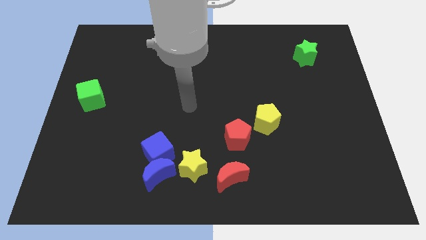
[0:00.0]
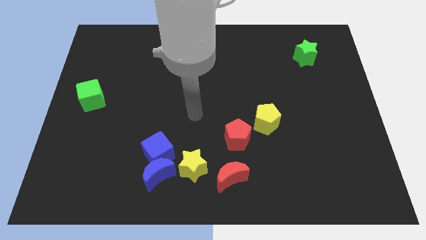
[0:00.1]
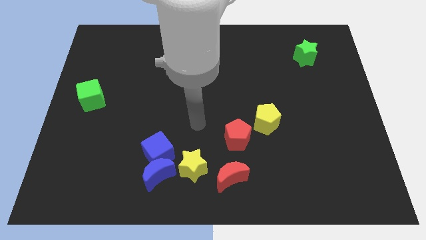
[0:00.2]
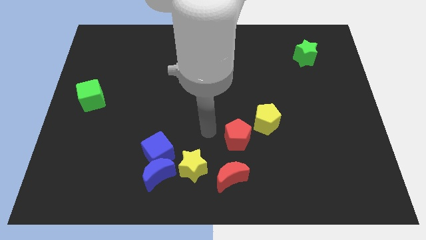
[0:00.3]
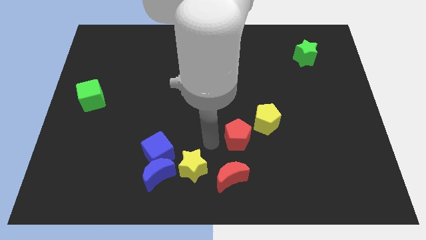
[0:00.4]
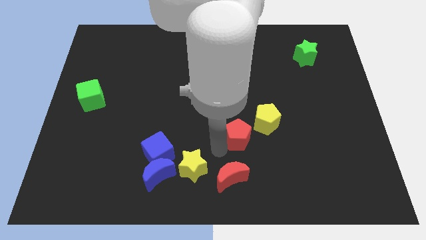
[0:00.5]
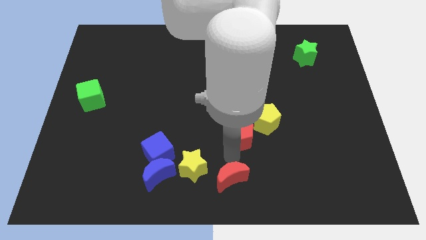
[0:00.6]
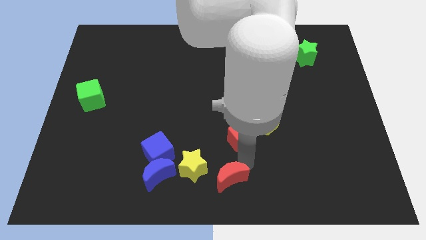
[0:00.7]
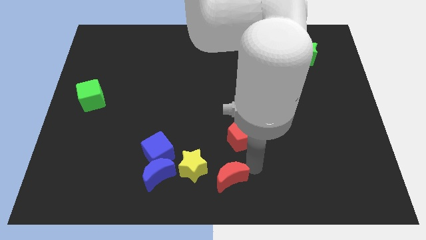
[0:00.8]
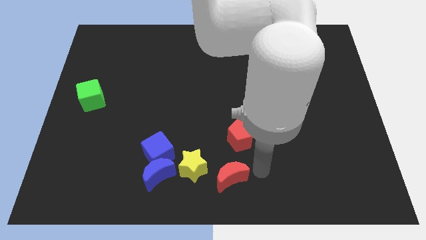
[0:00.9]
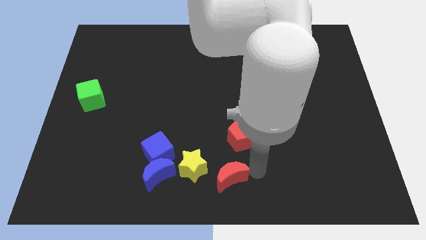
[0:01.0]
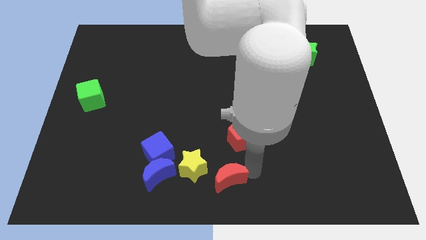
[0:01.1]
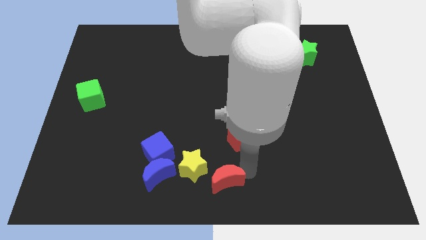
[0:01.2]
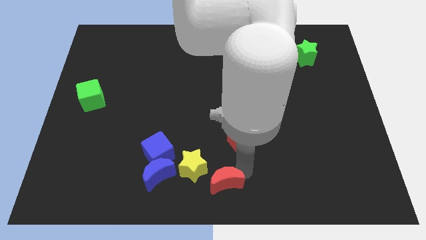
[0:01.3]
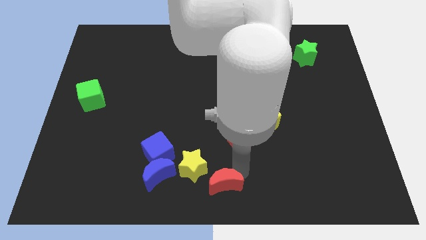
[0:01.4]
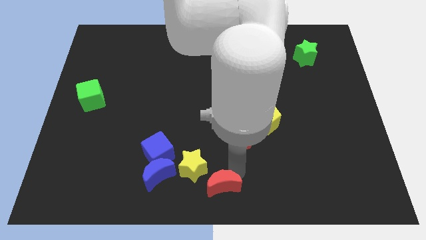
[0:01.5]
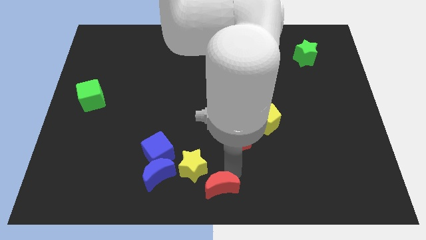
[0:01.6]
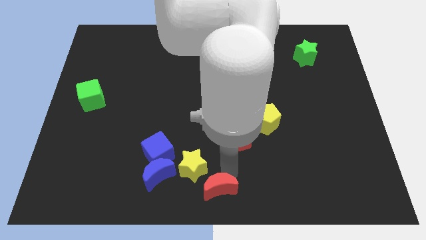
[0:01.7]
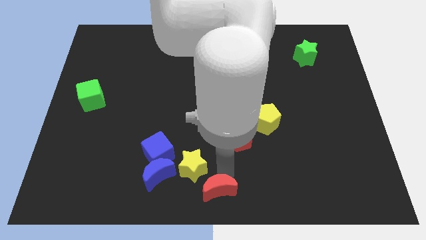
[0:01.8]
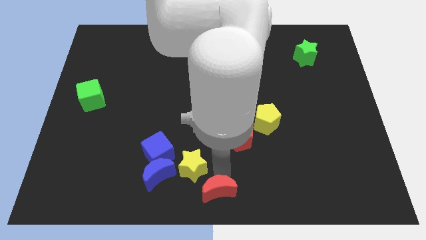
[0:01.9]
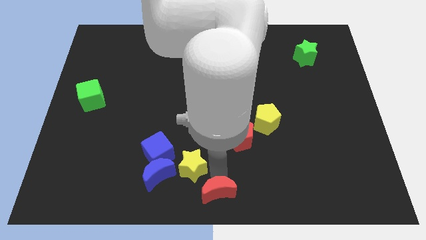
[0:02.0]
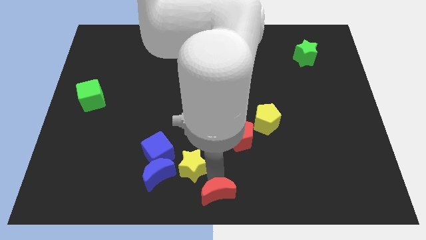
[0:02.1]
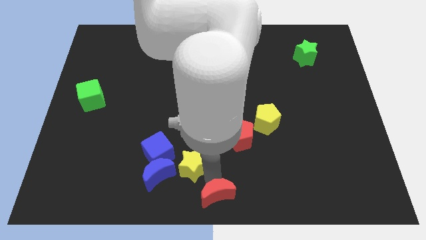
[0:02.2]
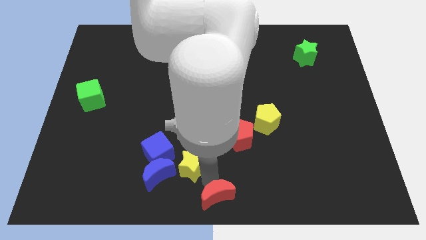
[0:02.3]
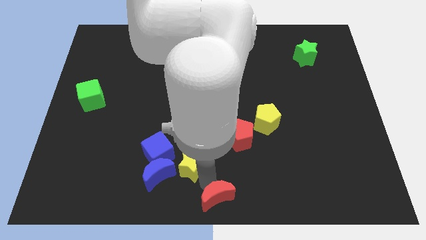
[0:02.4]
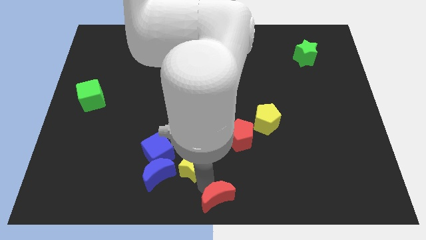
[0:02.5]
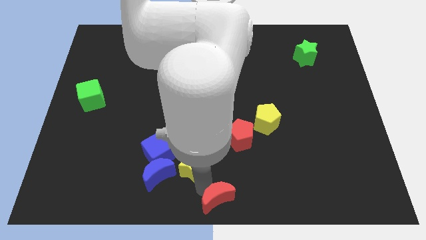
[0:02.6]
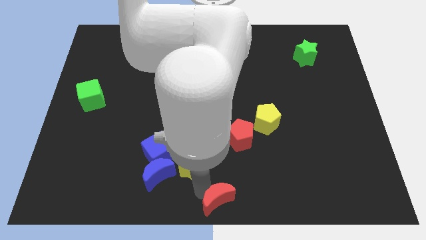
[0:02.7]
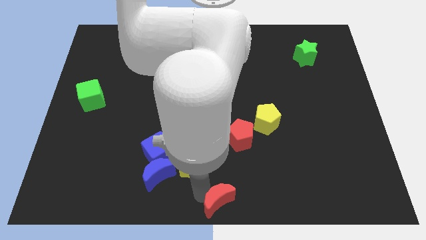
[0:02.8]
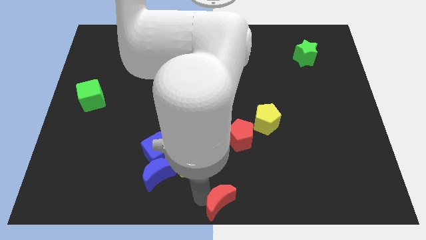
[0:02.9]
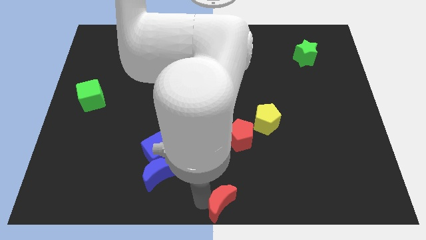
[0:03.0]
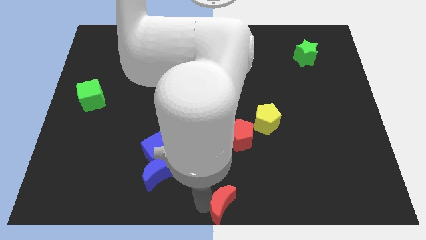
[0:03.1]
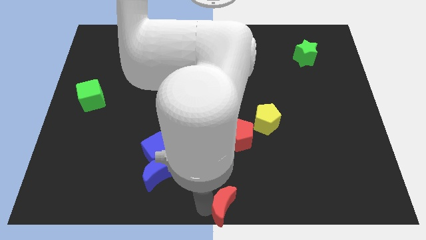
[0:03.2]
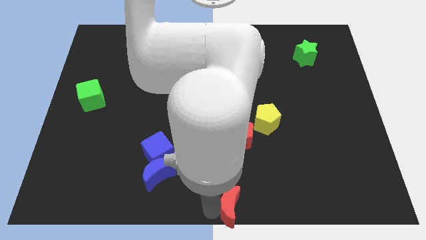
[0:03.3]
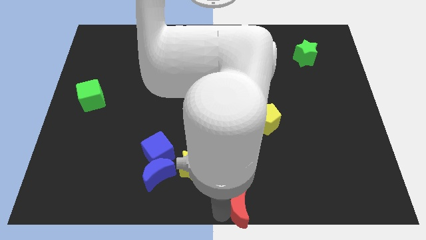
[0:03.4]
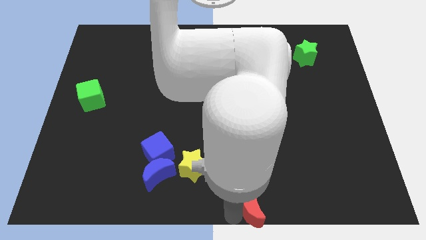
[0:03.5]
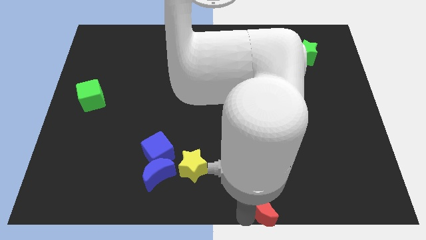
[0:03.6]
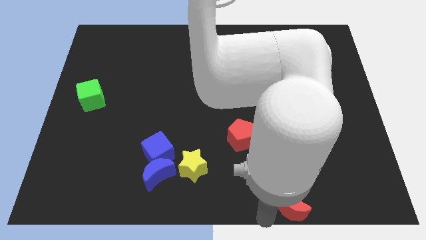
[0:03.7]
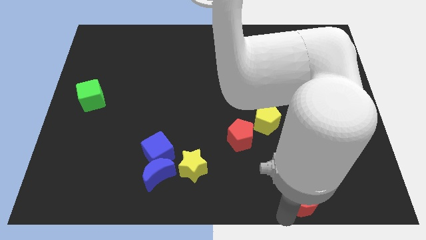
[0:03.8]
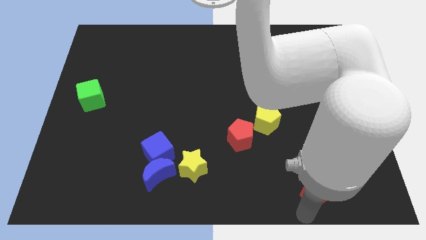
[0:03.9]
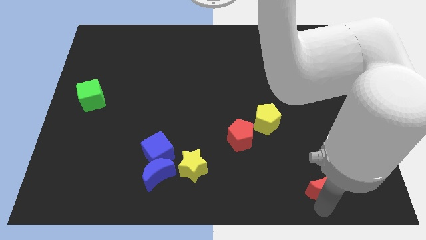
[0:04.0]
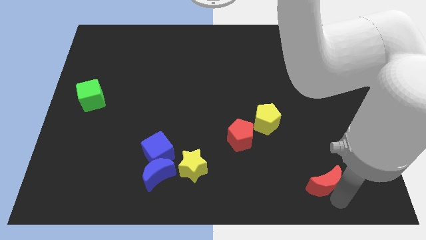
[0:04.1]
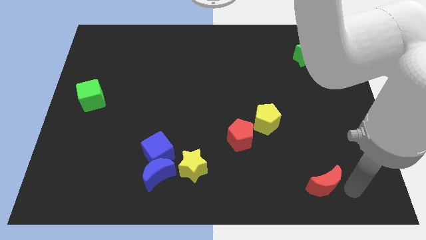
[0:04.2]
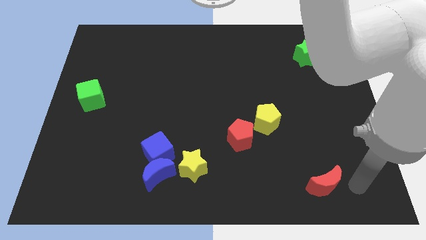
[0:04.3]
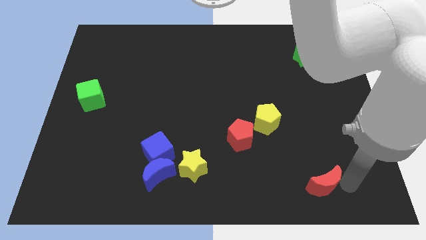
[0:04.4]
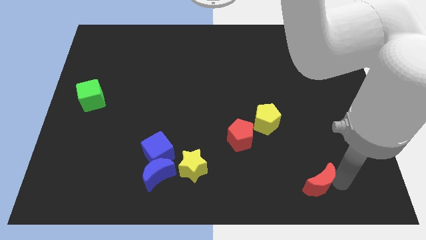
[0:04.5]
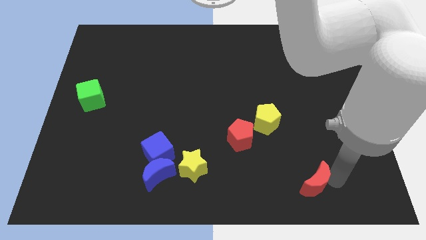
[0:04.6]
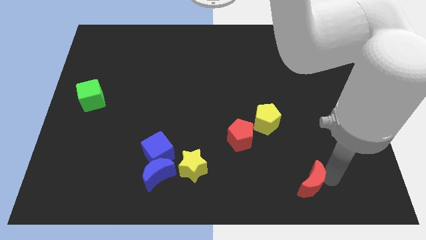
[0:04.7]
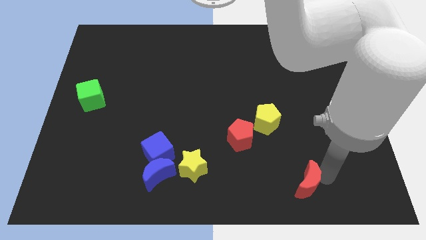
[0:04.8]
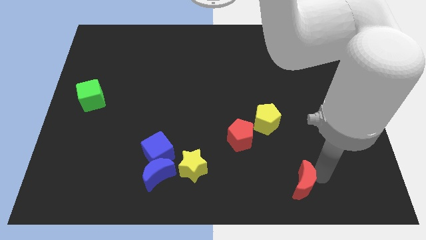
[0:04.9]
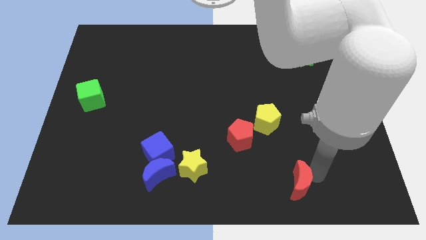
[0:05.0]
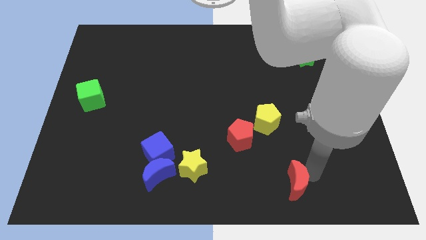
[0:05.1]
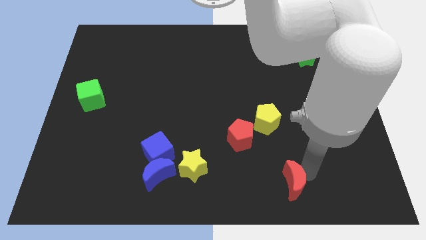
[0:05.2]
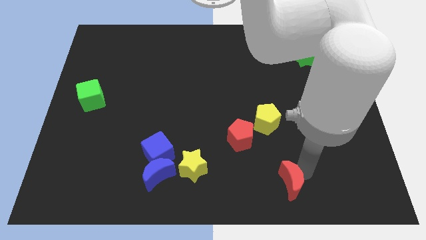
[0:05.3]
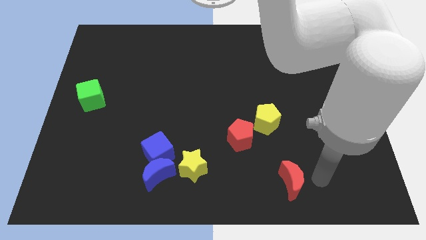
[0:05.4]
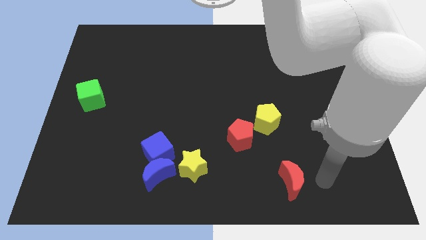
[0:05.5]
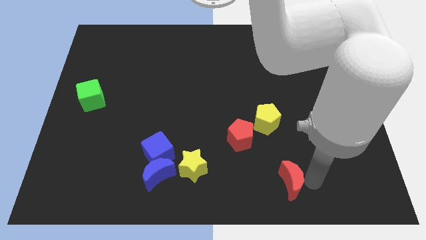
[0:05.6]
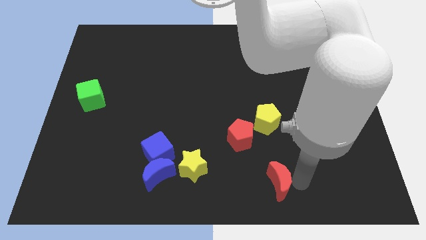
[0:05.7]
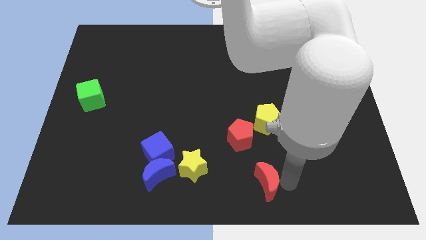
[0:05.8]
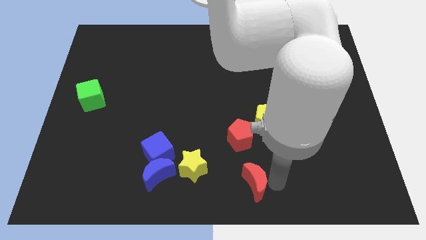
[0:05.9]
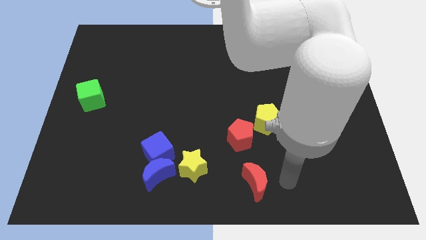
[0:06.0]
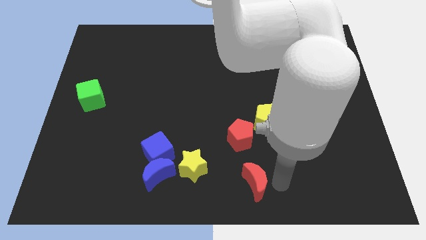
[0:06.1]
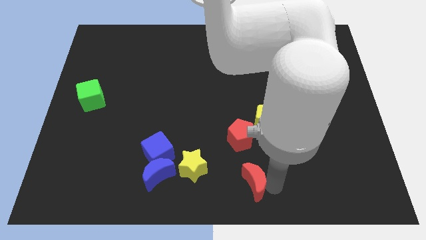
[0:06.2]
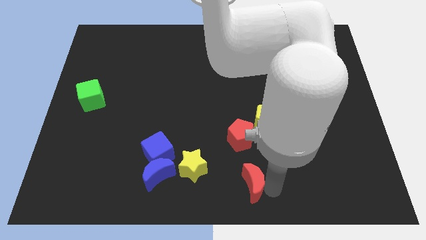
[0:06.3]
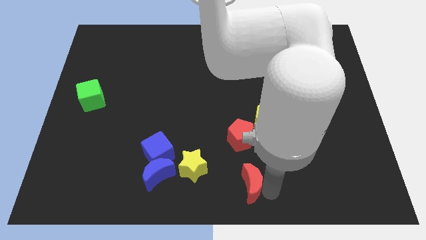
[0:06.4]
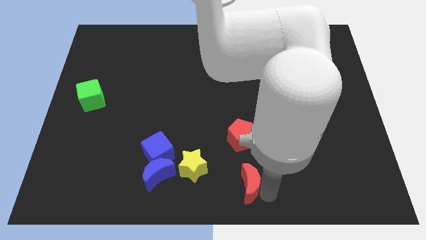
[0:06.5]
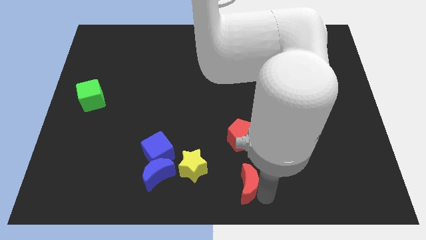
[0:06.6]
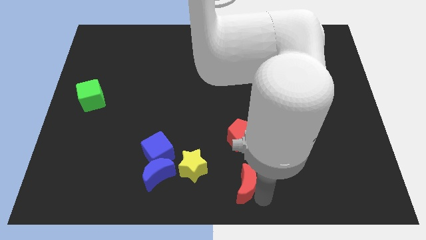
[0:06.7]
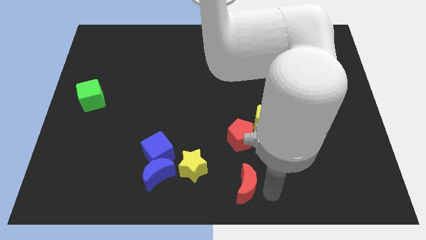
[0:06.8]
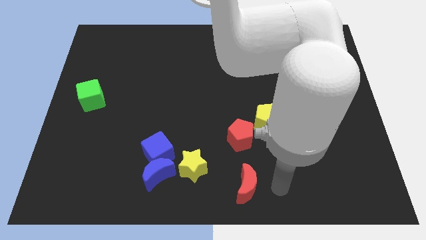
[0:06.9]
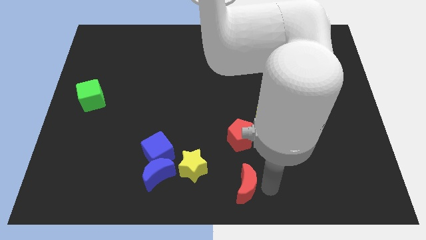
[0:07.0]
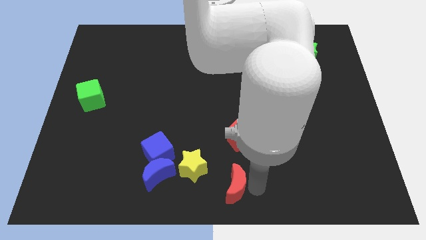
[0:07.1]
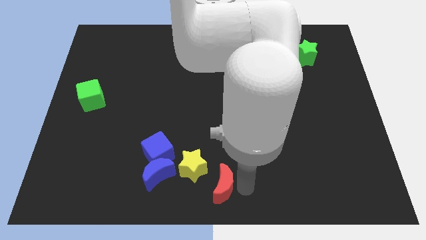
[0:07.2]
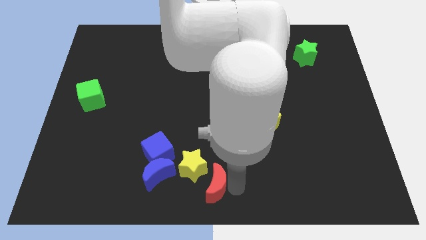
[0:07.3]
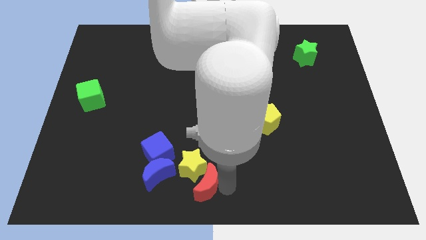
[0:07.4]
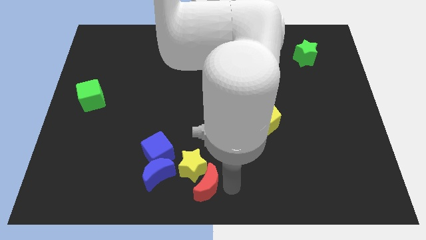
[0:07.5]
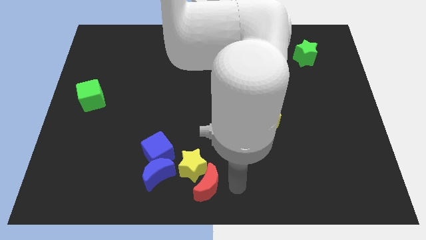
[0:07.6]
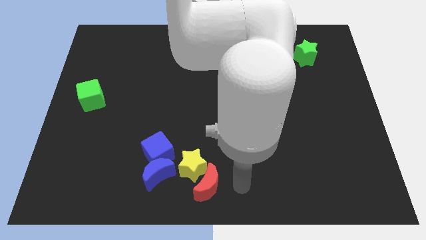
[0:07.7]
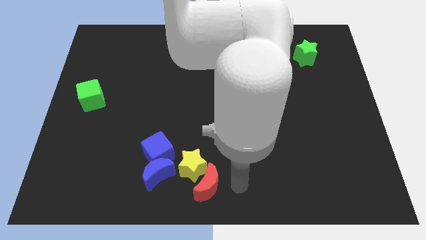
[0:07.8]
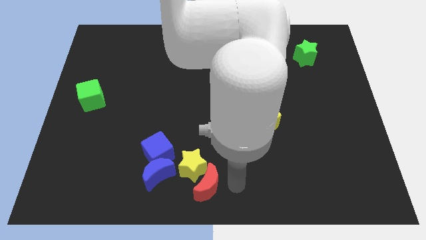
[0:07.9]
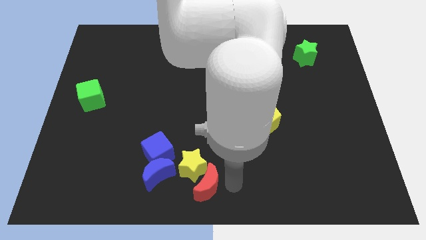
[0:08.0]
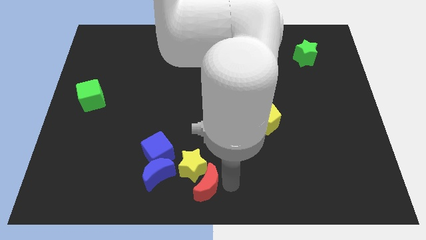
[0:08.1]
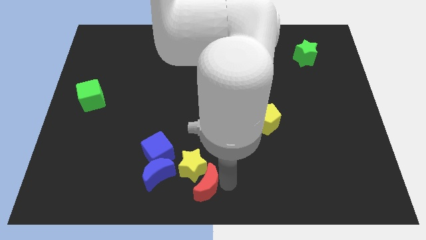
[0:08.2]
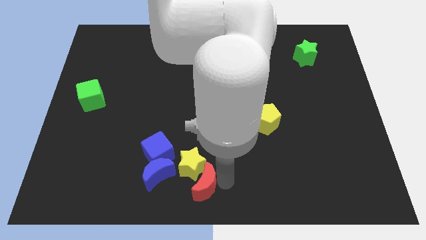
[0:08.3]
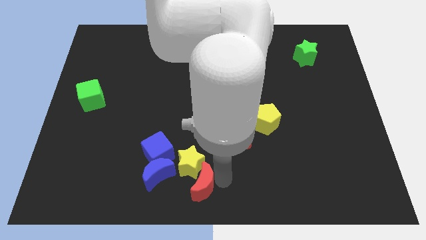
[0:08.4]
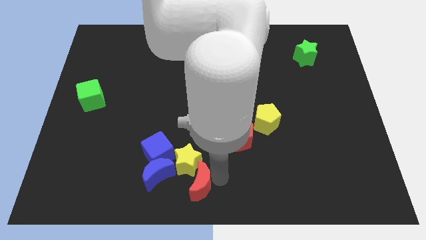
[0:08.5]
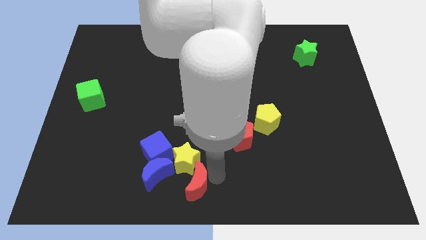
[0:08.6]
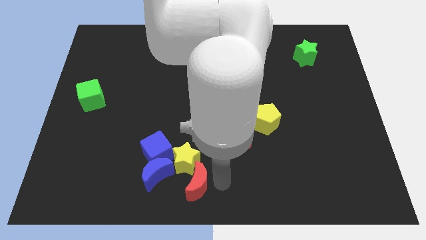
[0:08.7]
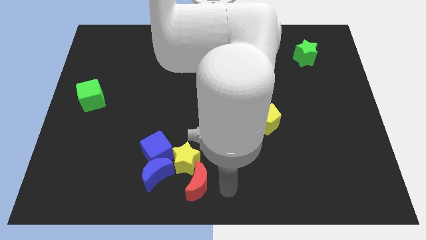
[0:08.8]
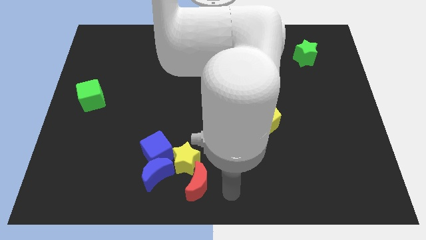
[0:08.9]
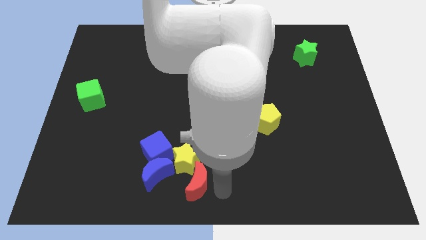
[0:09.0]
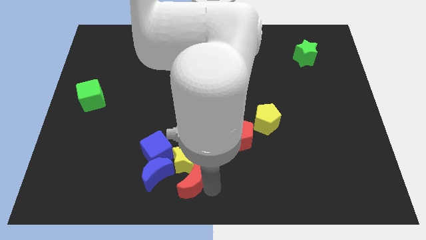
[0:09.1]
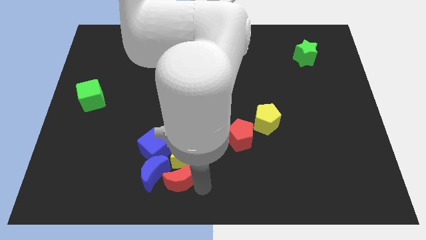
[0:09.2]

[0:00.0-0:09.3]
put the red moon to the blue moon
